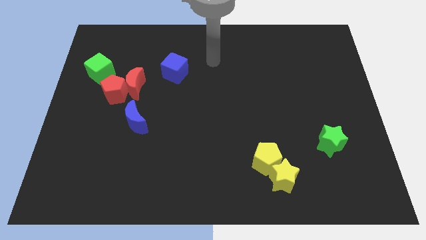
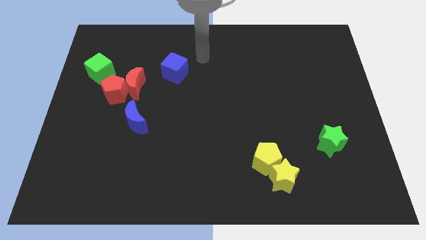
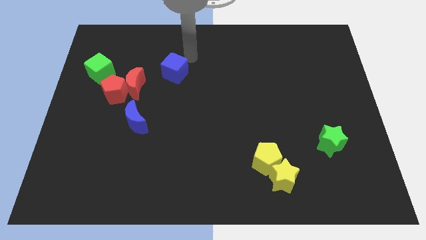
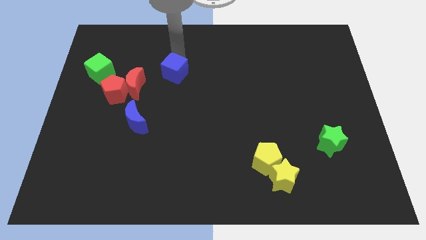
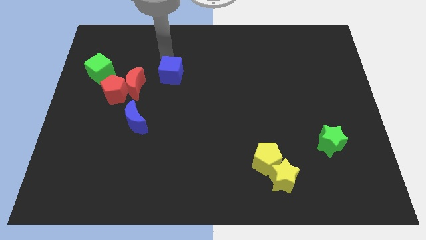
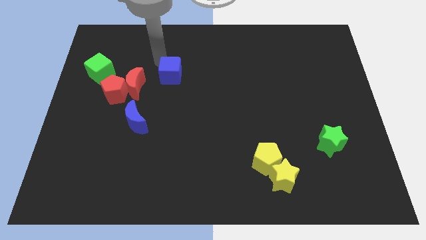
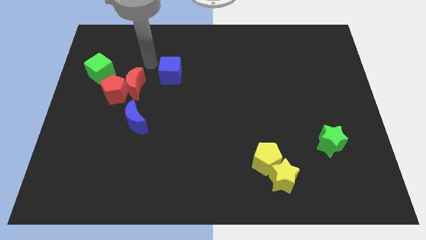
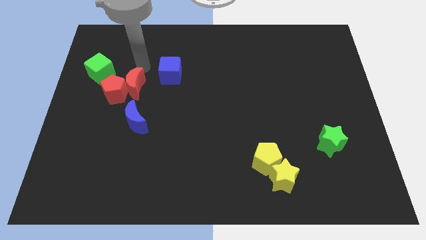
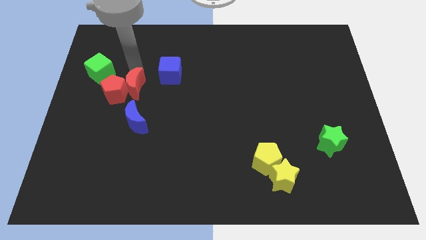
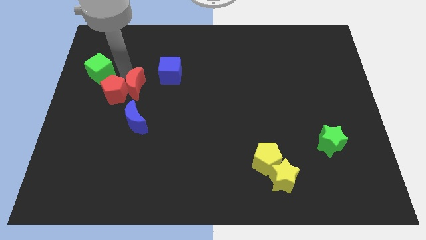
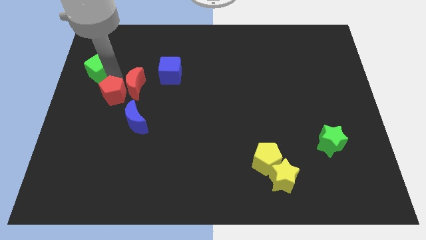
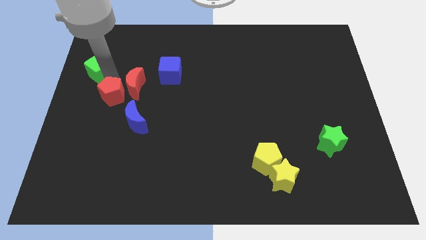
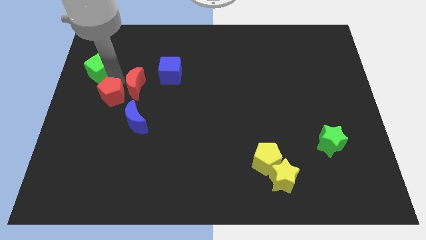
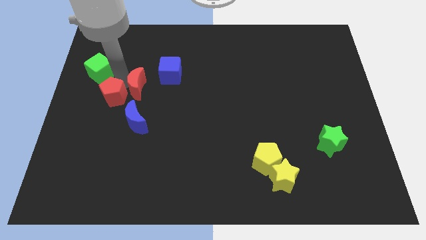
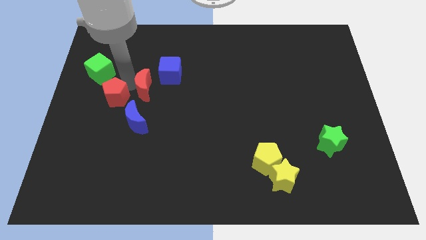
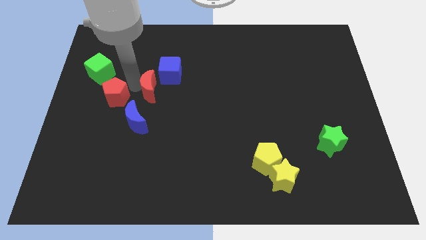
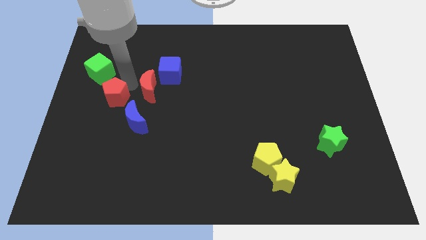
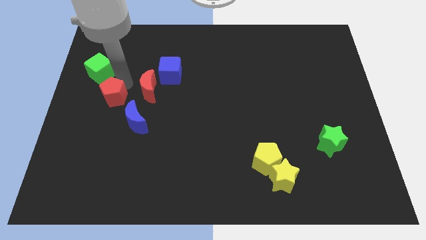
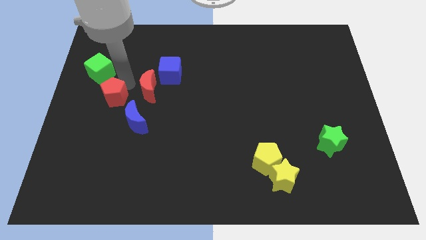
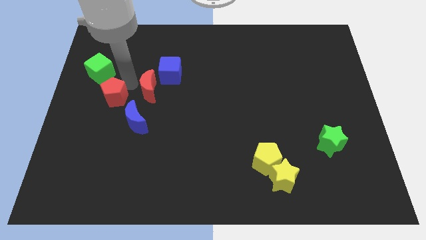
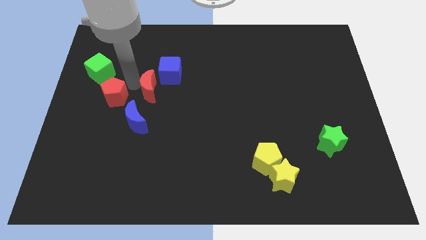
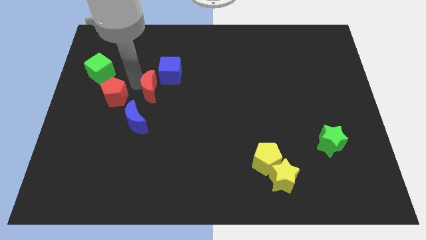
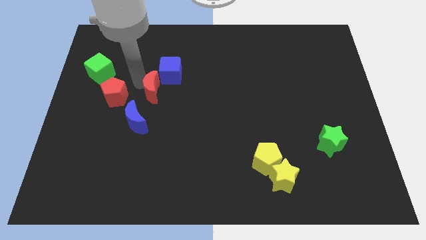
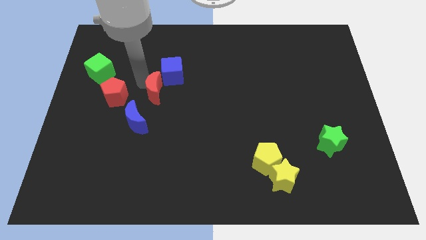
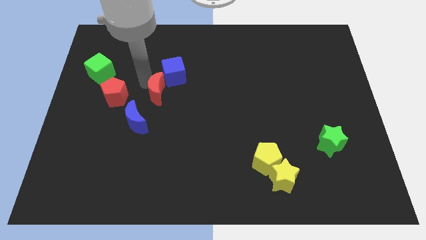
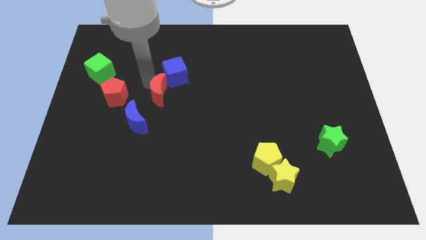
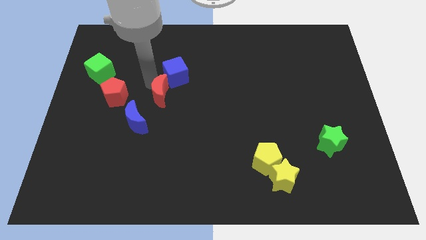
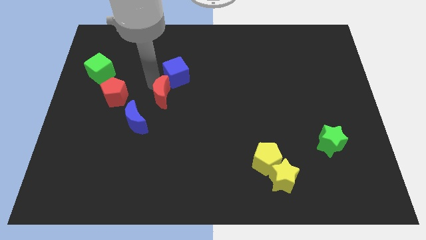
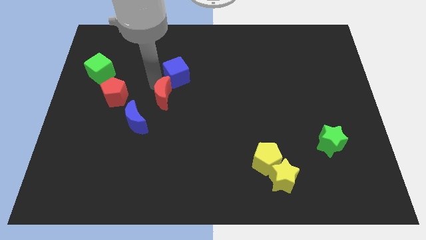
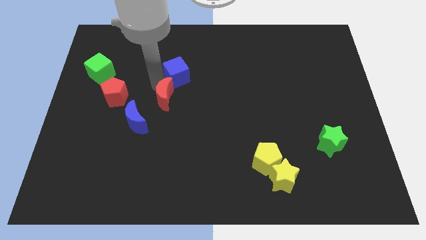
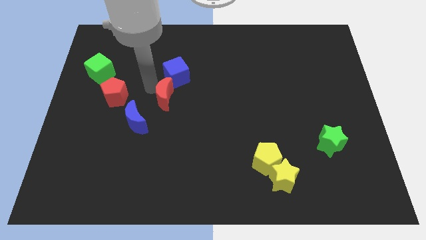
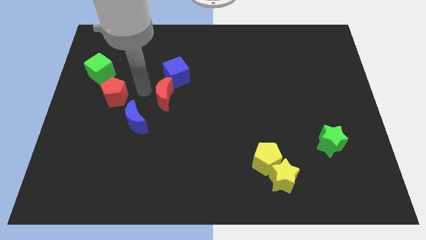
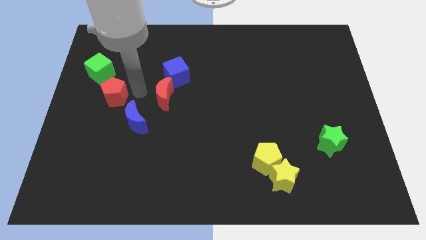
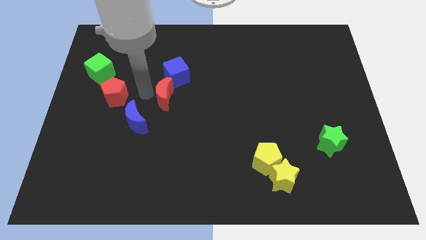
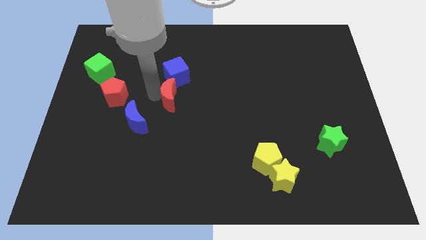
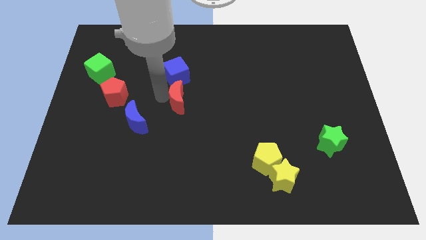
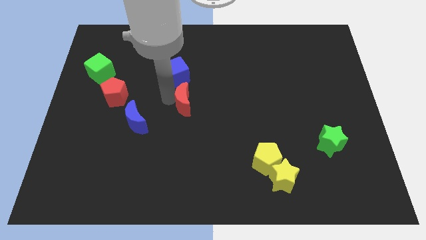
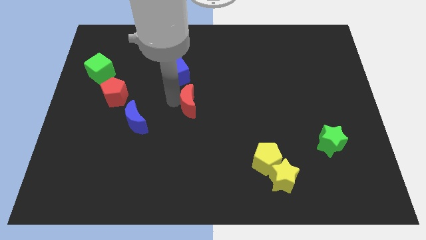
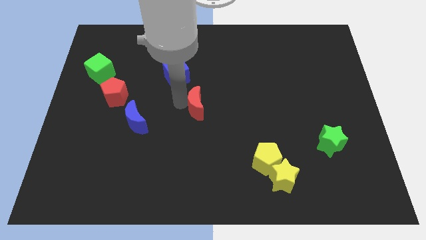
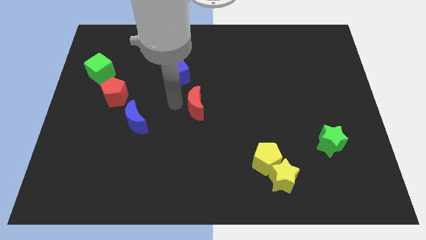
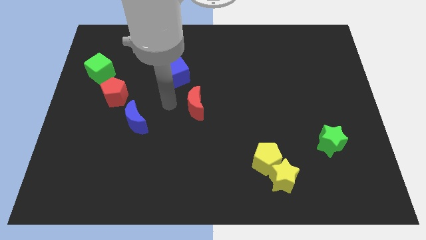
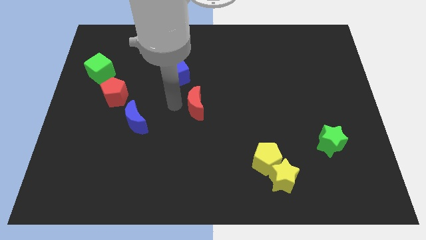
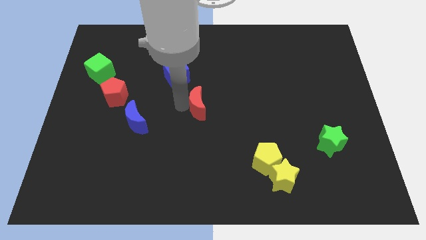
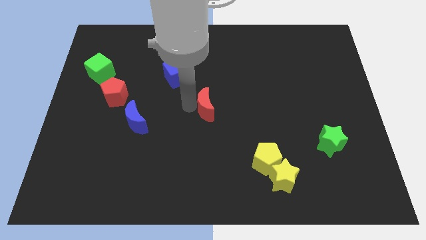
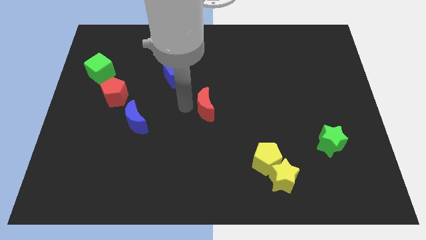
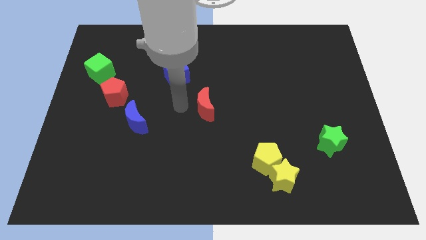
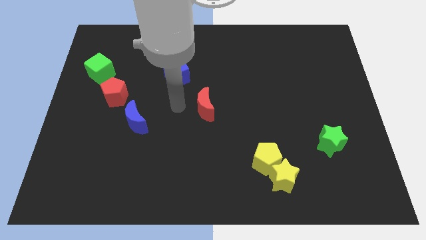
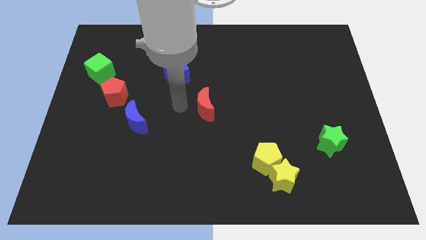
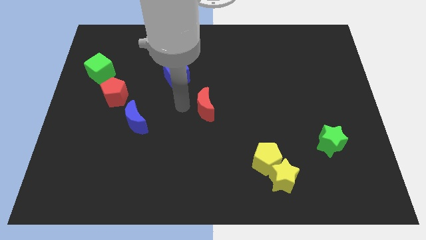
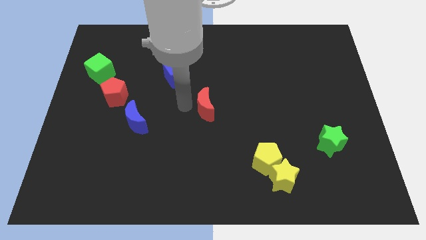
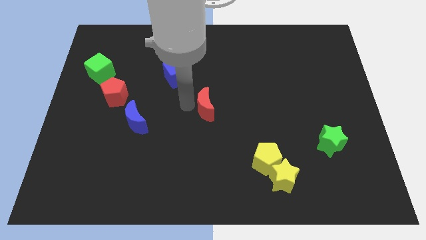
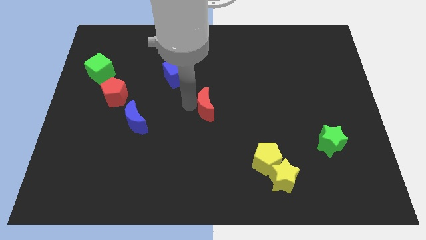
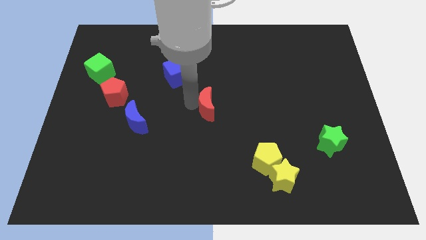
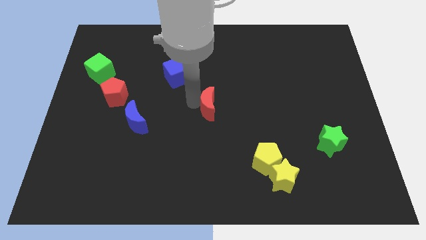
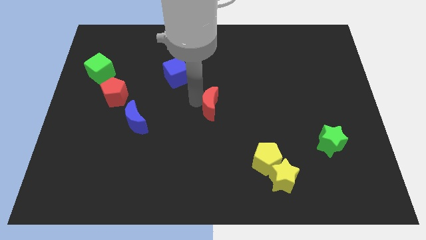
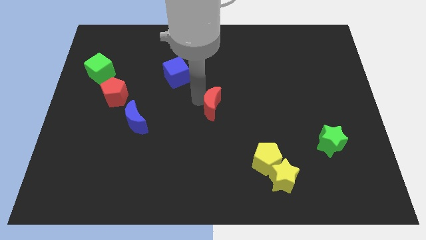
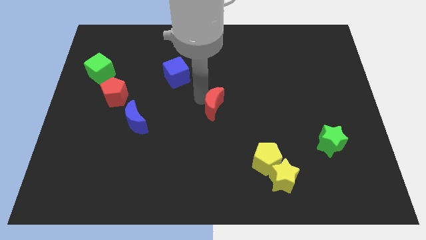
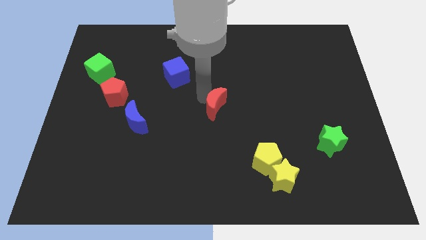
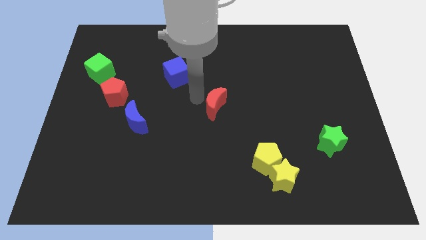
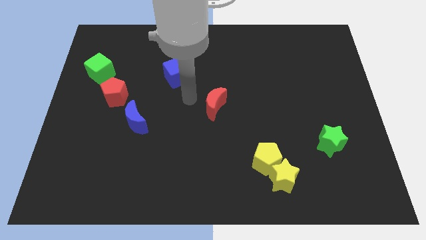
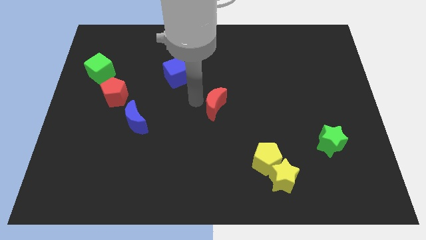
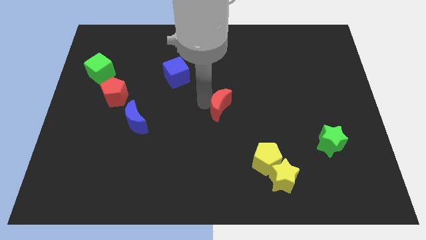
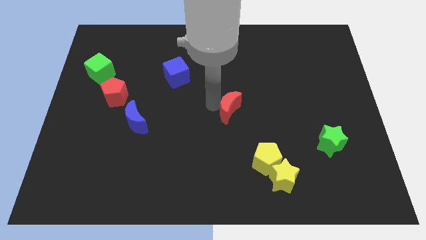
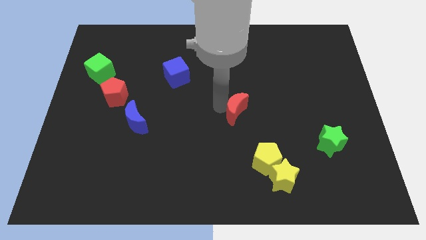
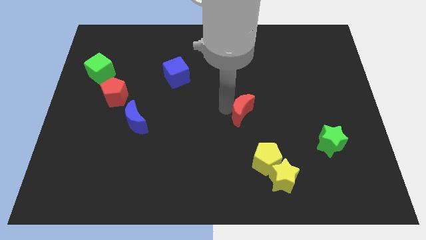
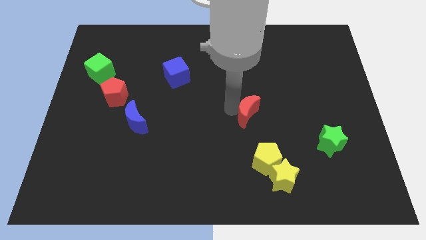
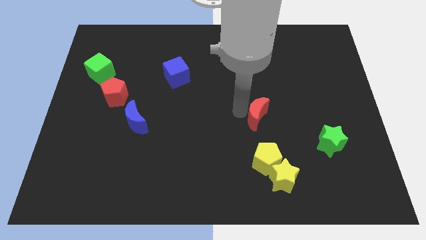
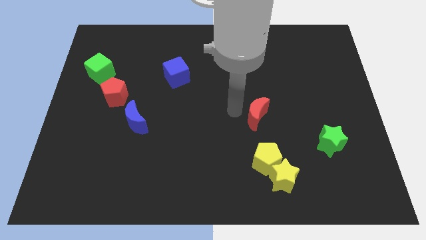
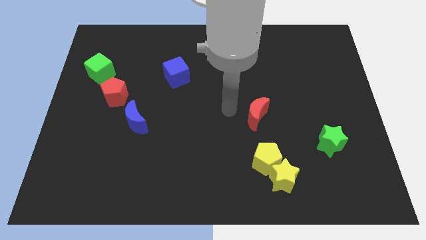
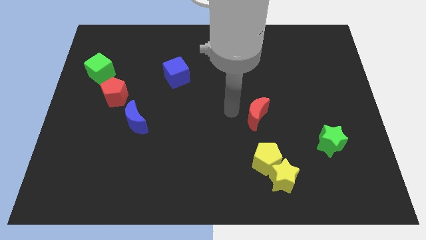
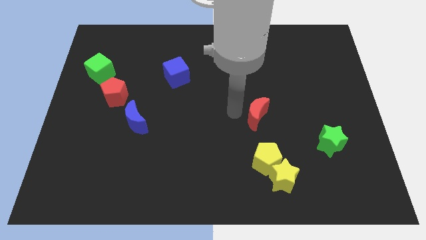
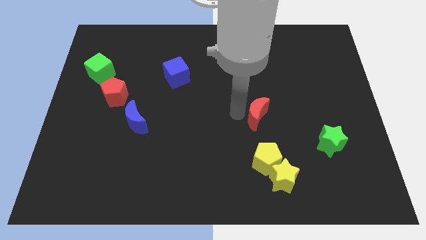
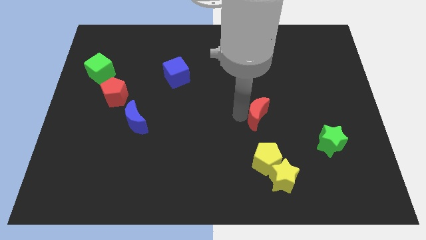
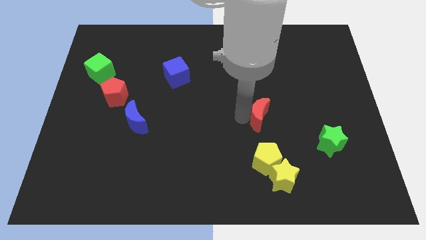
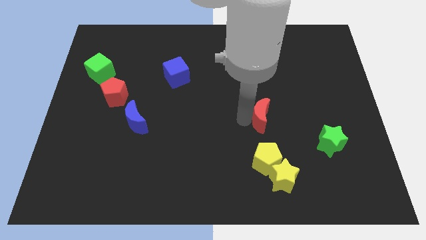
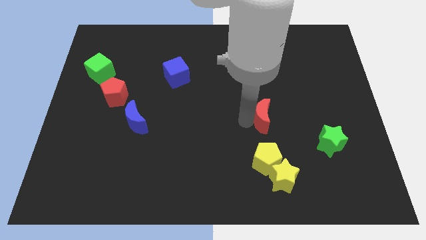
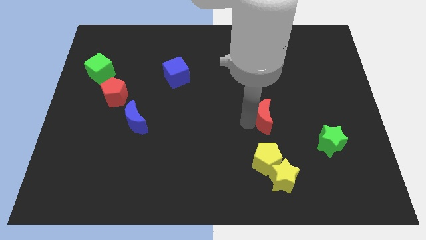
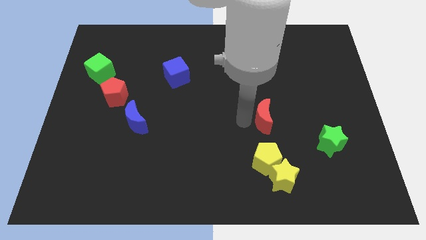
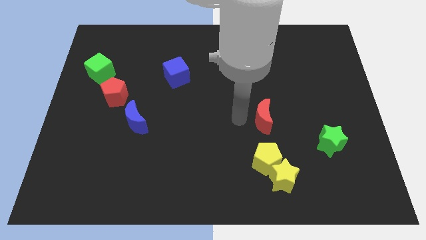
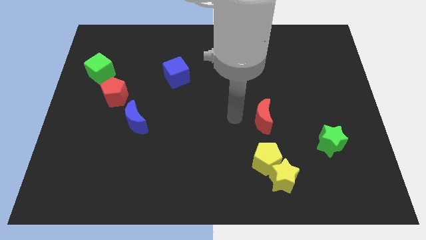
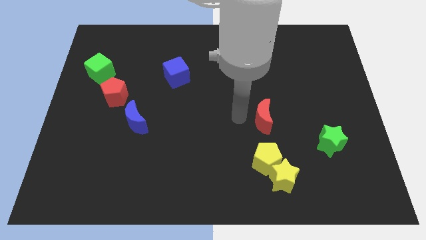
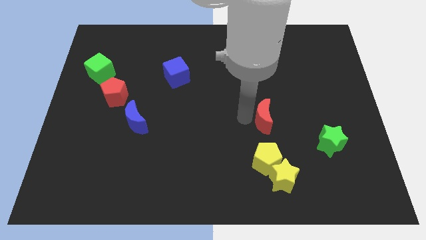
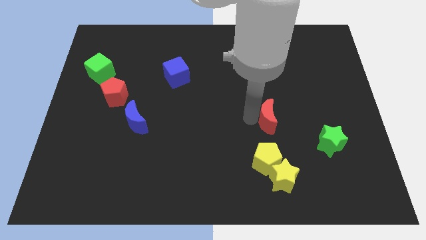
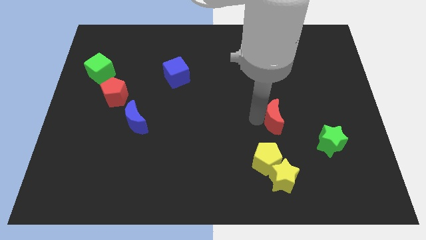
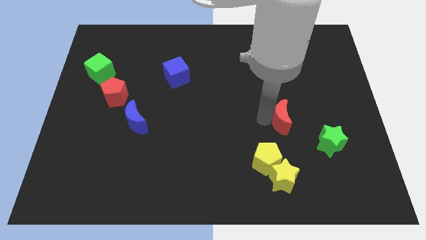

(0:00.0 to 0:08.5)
slide the red moon to the top left side of the green star
